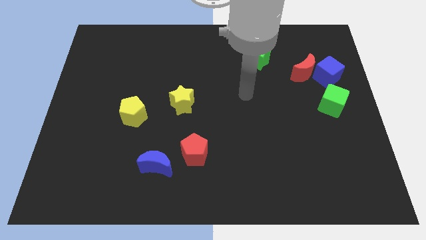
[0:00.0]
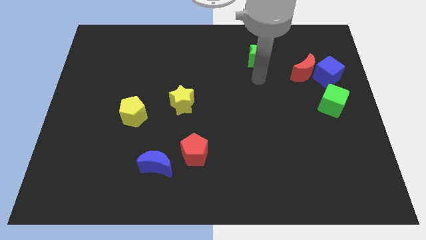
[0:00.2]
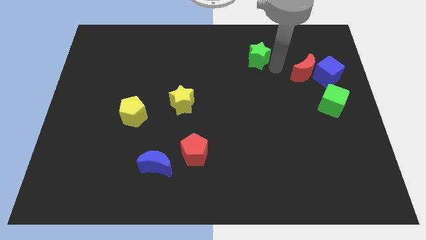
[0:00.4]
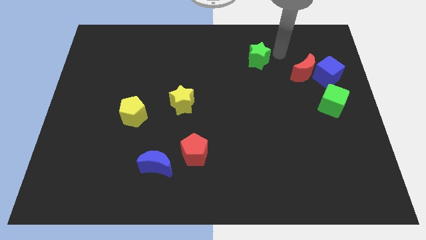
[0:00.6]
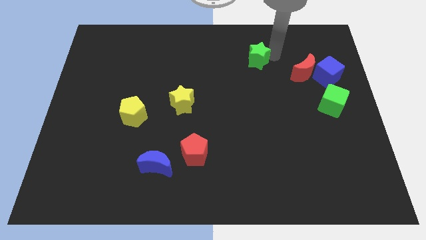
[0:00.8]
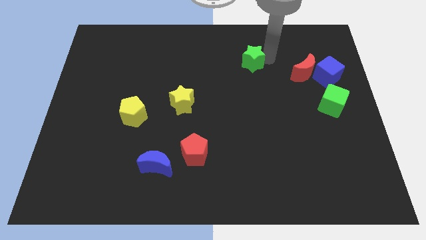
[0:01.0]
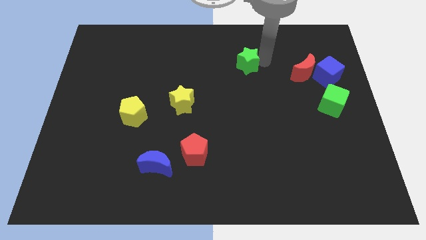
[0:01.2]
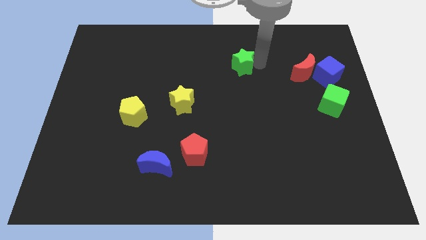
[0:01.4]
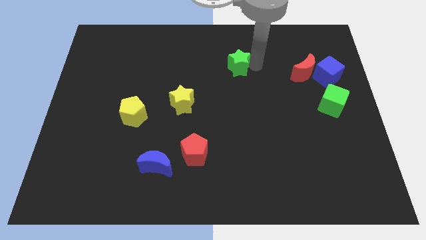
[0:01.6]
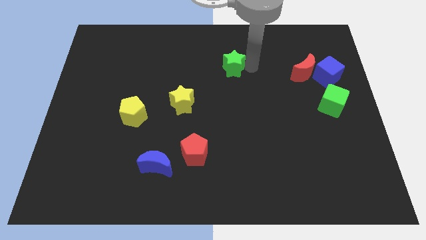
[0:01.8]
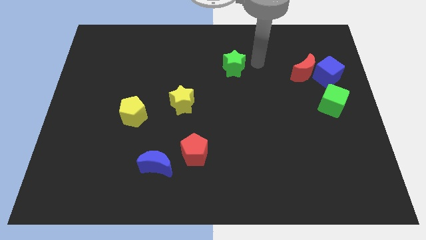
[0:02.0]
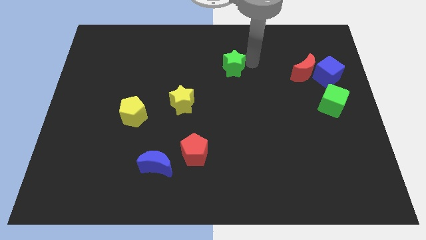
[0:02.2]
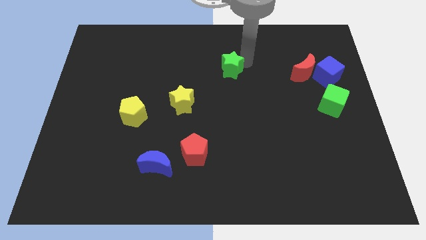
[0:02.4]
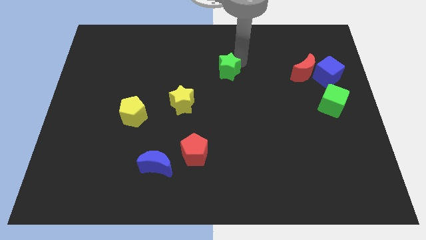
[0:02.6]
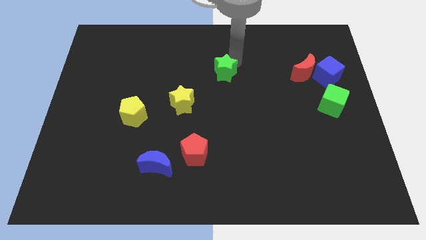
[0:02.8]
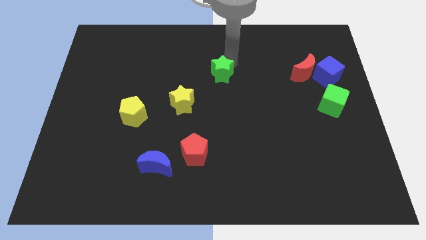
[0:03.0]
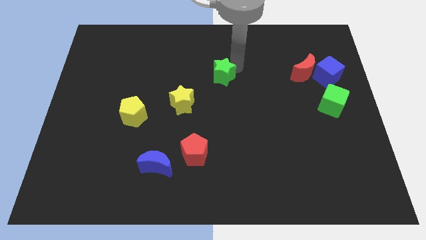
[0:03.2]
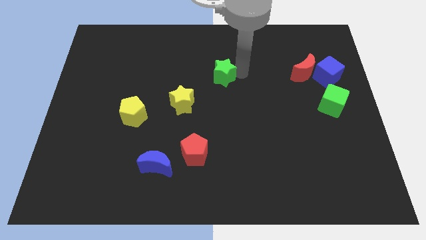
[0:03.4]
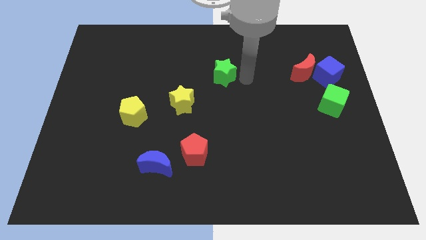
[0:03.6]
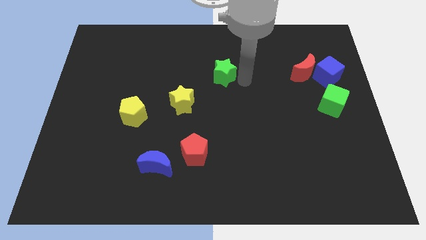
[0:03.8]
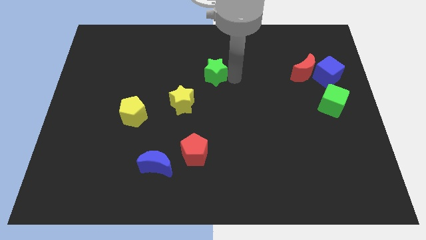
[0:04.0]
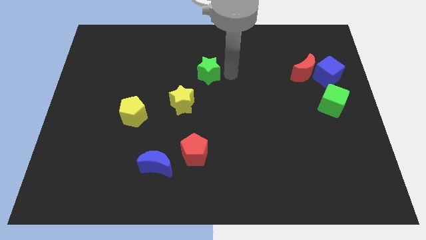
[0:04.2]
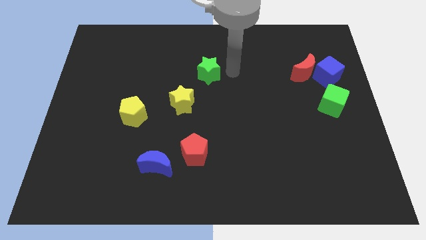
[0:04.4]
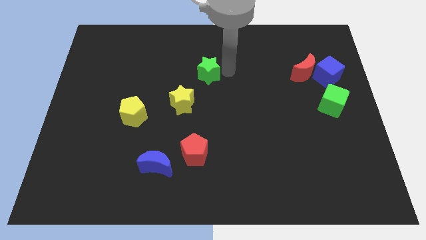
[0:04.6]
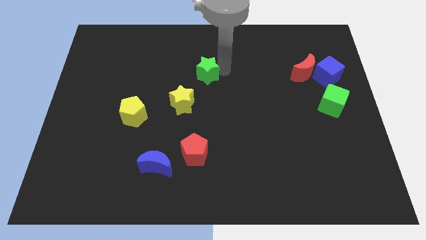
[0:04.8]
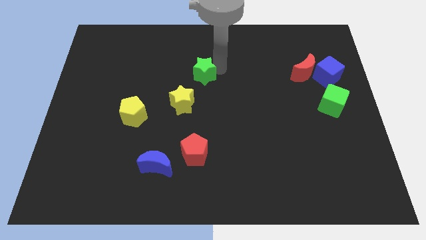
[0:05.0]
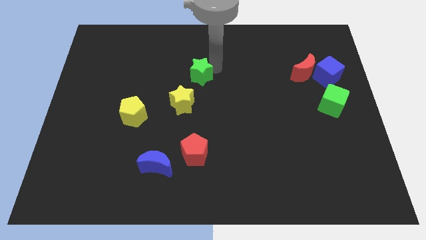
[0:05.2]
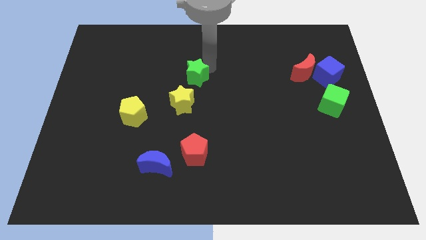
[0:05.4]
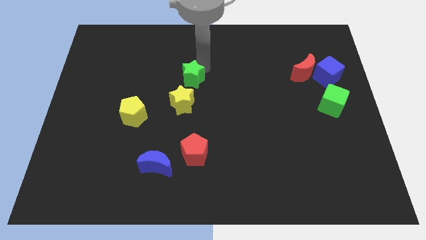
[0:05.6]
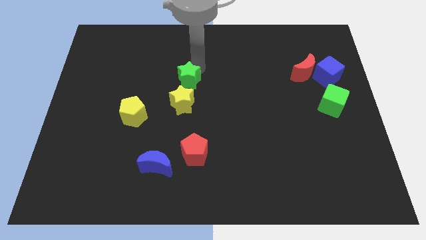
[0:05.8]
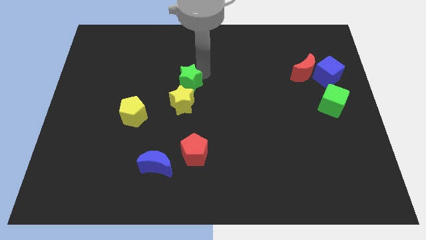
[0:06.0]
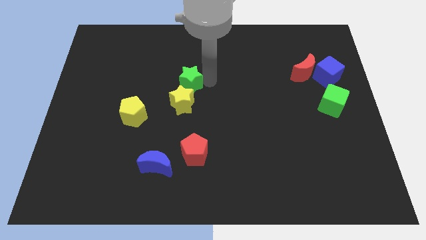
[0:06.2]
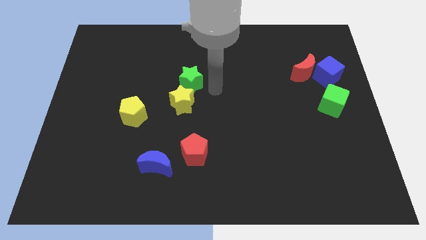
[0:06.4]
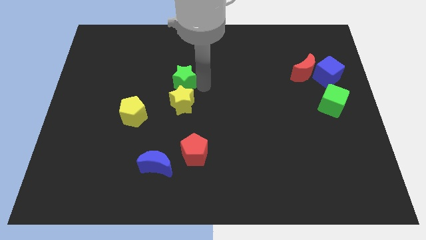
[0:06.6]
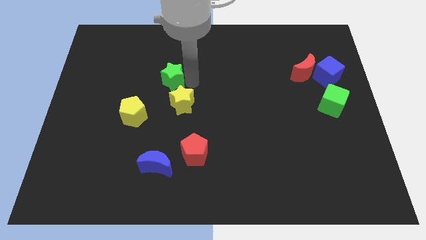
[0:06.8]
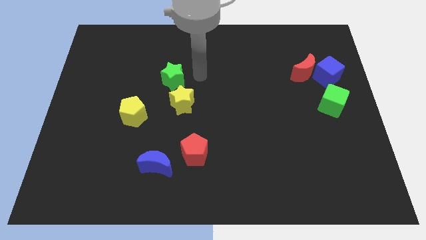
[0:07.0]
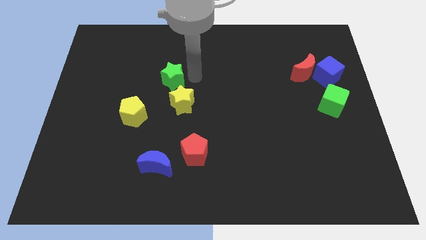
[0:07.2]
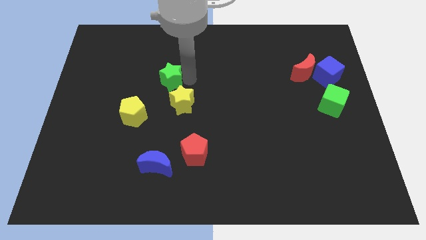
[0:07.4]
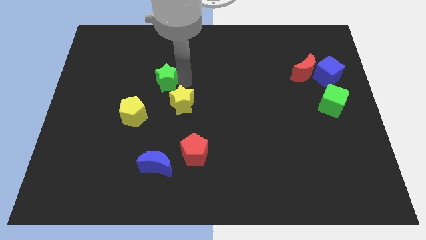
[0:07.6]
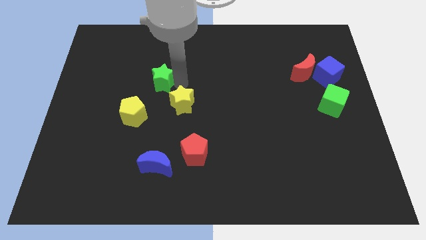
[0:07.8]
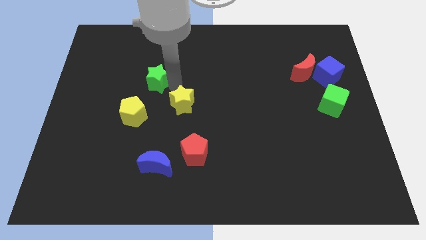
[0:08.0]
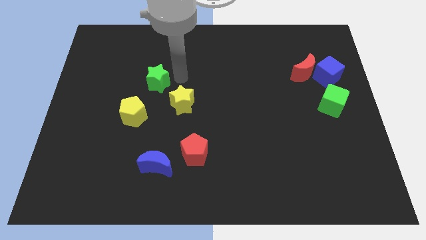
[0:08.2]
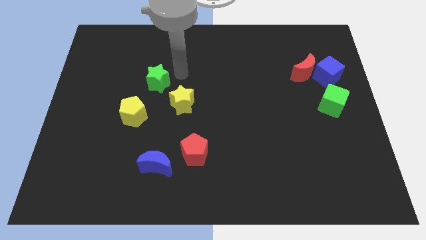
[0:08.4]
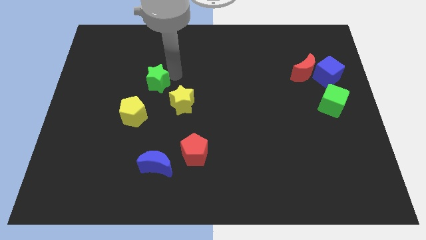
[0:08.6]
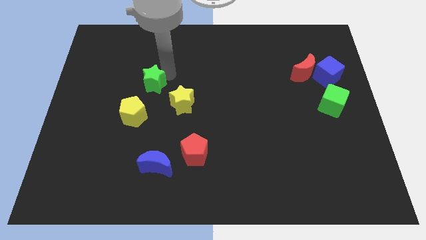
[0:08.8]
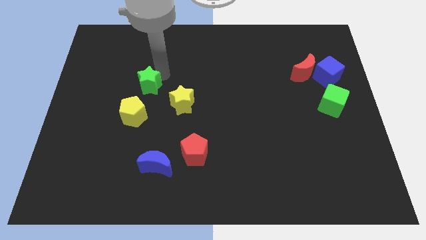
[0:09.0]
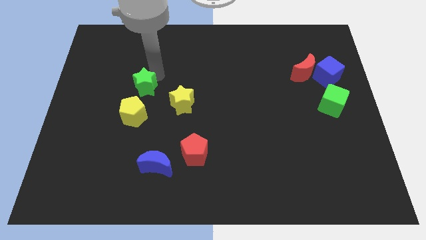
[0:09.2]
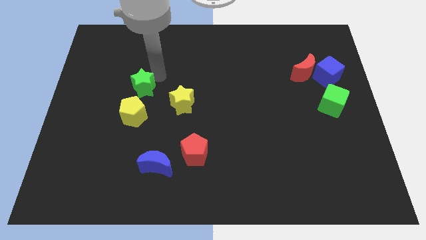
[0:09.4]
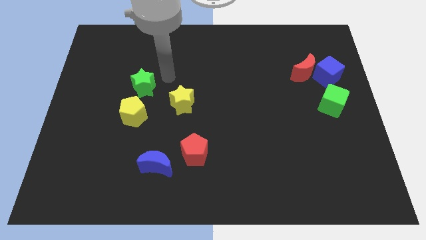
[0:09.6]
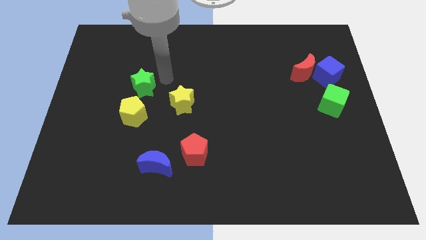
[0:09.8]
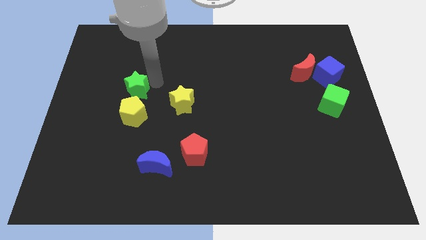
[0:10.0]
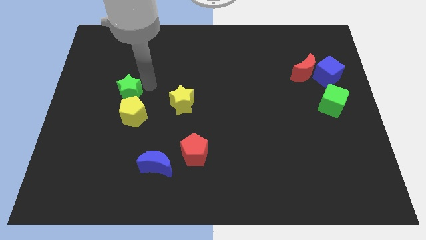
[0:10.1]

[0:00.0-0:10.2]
put the green star to the top left of the yellow pentagon

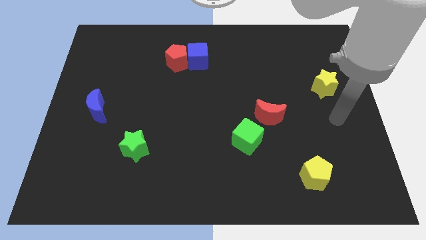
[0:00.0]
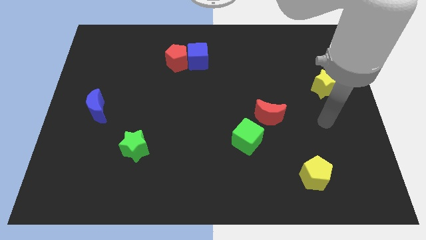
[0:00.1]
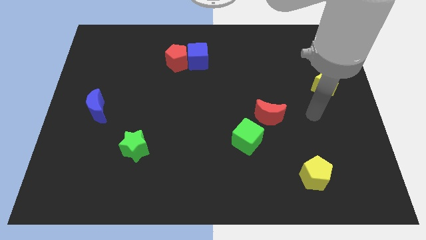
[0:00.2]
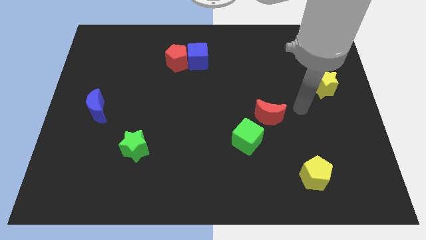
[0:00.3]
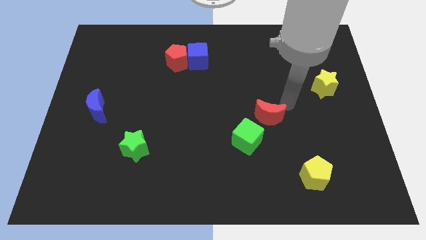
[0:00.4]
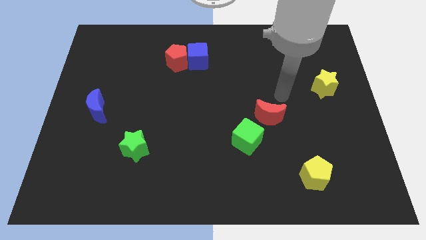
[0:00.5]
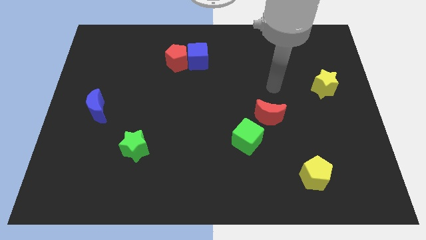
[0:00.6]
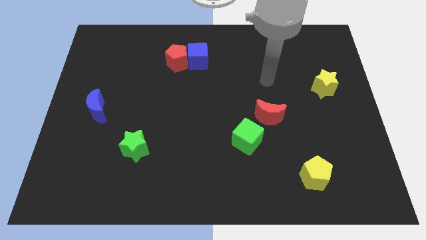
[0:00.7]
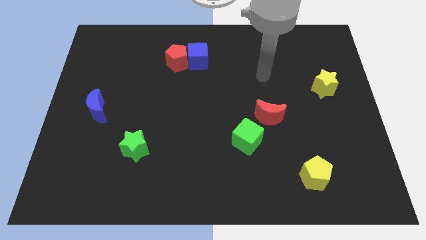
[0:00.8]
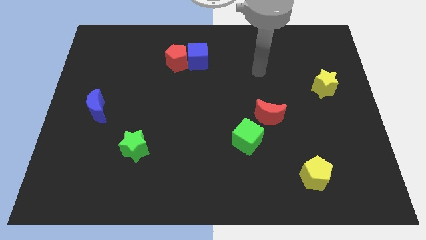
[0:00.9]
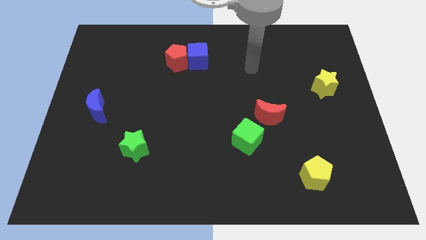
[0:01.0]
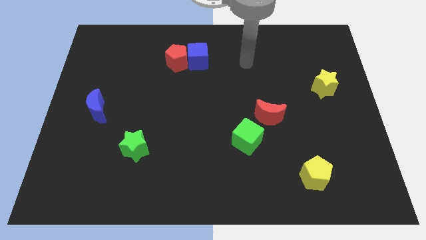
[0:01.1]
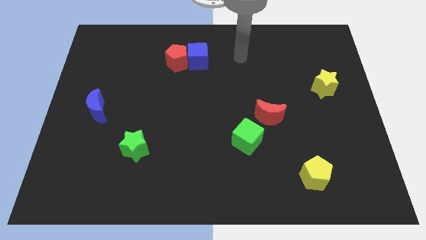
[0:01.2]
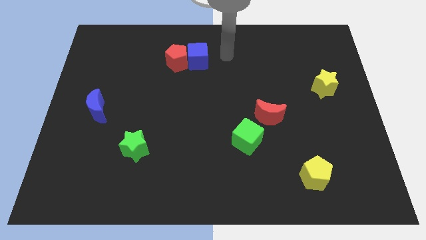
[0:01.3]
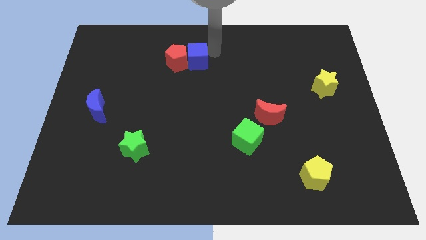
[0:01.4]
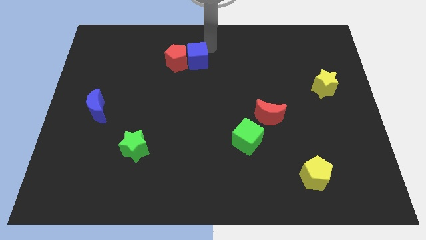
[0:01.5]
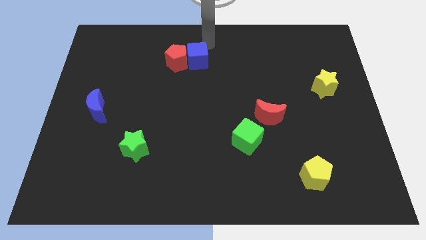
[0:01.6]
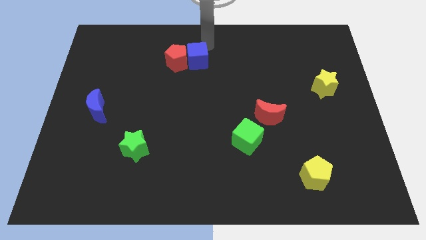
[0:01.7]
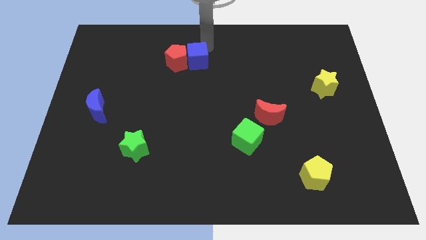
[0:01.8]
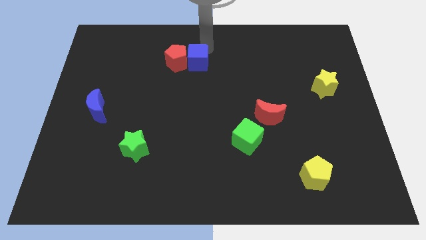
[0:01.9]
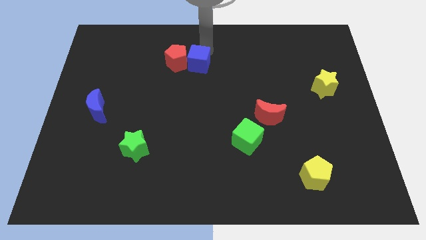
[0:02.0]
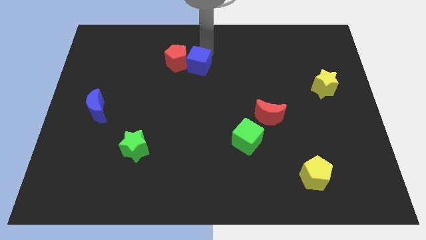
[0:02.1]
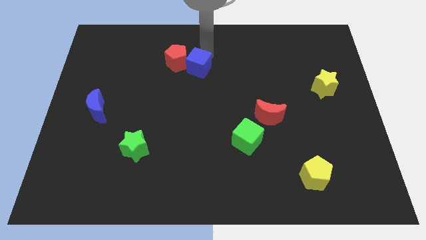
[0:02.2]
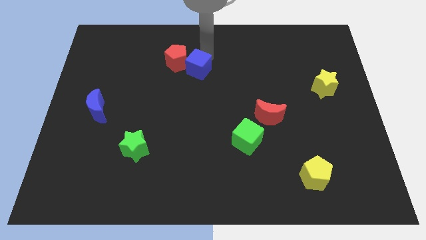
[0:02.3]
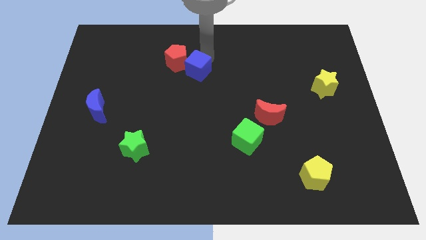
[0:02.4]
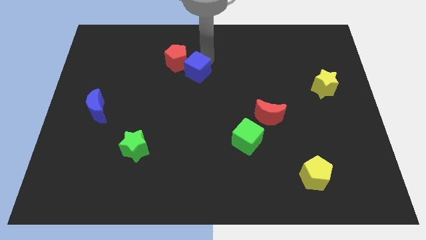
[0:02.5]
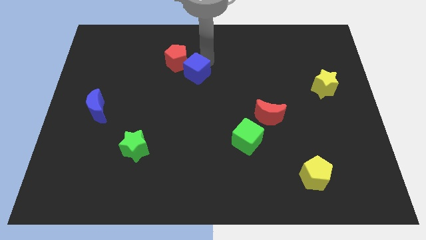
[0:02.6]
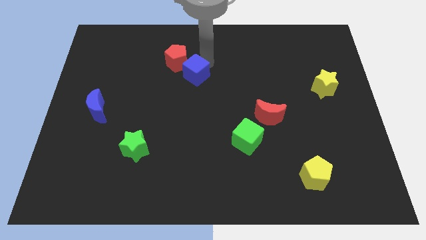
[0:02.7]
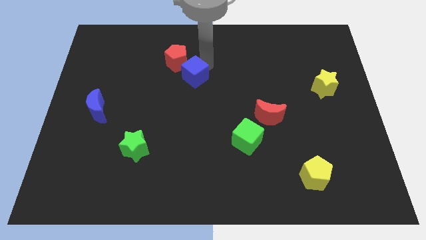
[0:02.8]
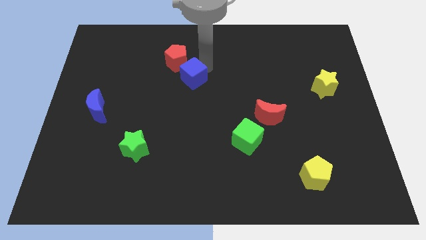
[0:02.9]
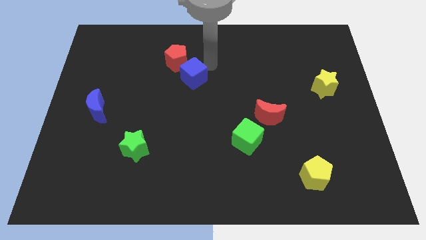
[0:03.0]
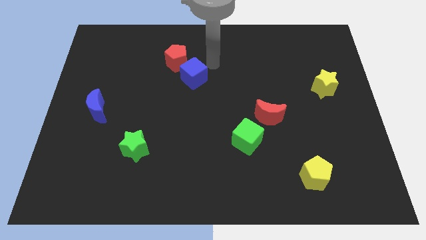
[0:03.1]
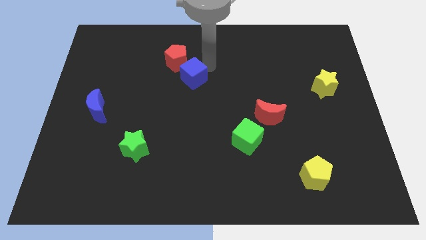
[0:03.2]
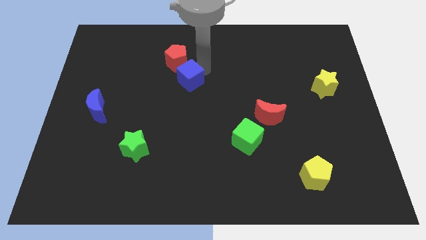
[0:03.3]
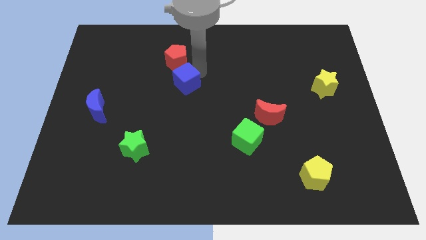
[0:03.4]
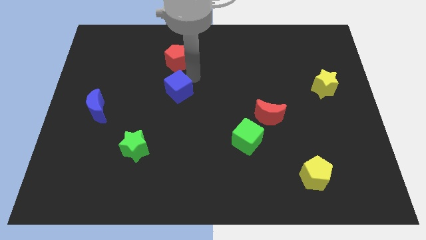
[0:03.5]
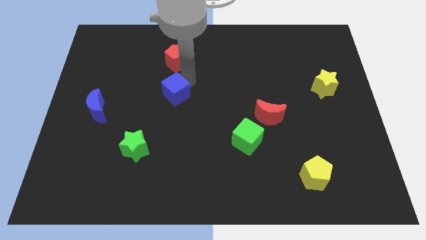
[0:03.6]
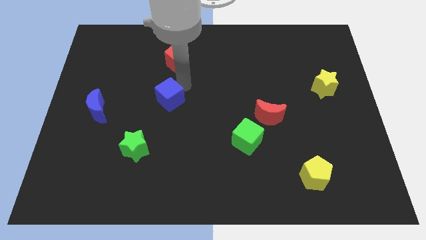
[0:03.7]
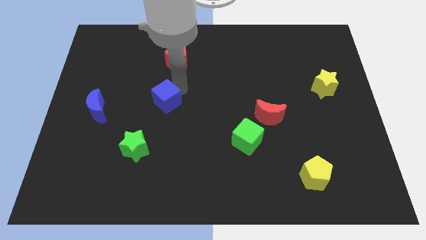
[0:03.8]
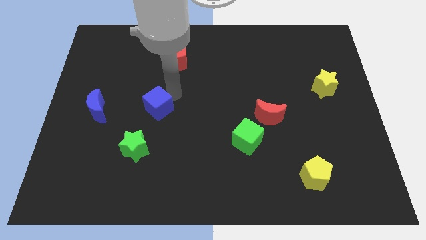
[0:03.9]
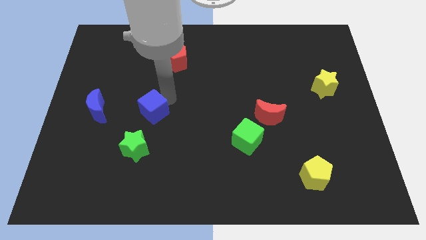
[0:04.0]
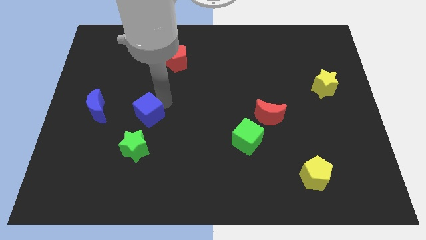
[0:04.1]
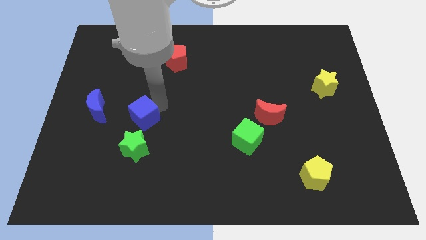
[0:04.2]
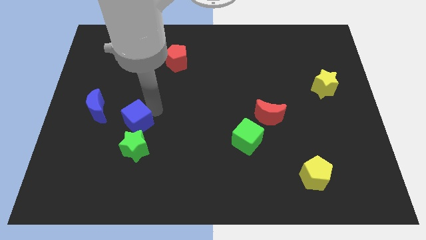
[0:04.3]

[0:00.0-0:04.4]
put the blue cube to the bottom right side of the blue moon
